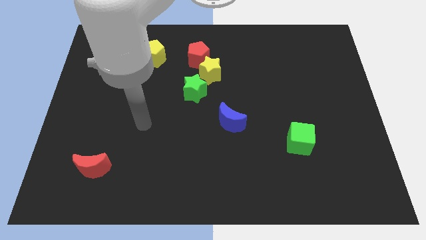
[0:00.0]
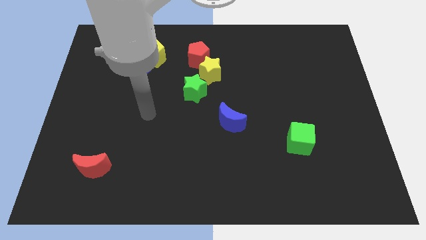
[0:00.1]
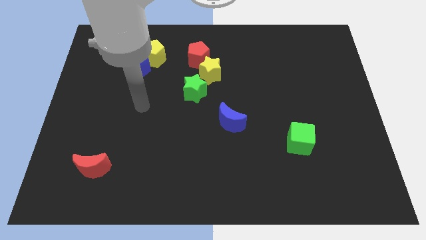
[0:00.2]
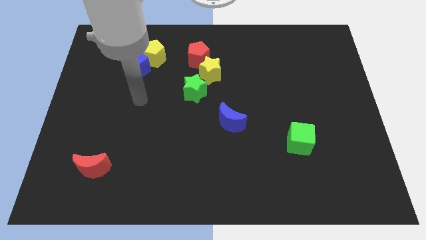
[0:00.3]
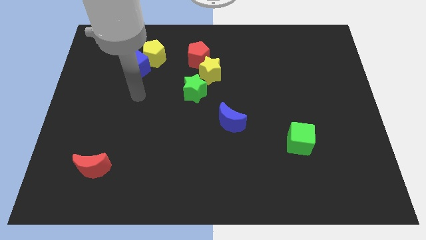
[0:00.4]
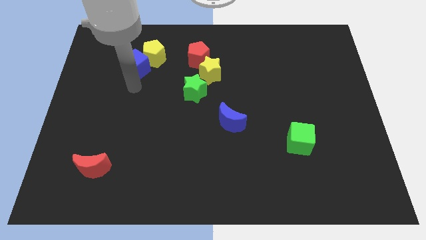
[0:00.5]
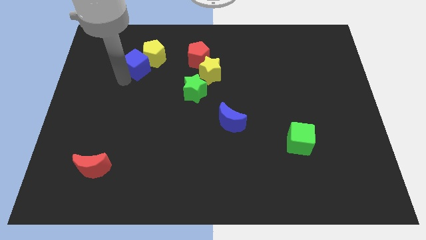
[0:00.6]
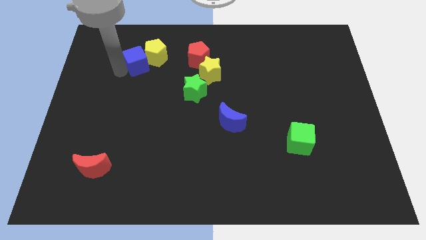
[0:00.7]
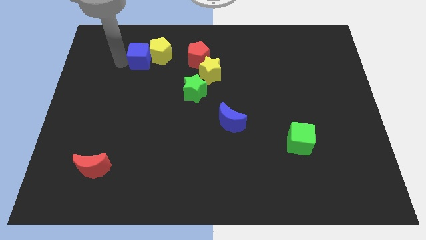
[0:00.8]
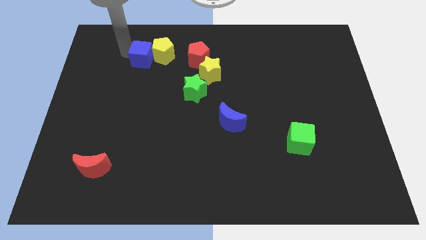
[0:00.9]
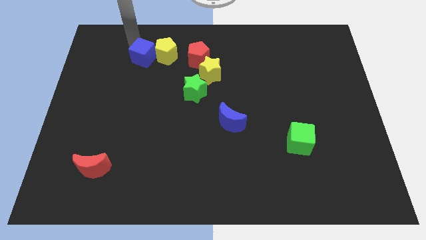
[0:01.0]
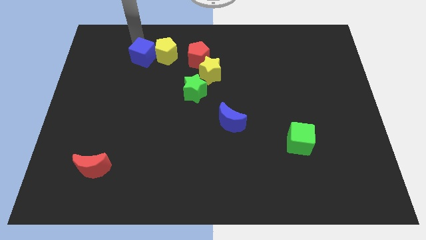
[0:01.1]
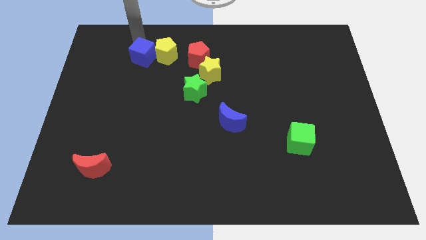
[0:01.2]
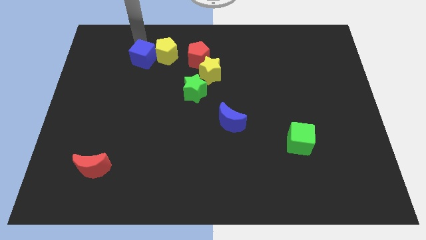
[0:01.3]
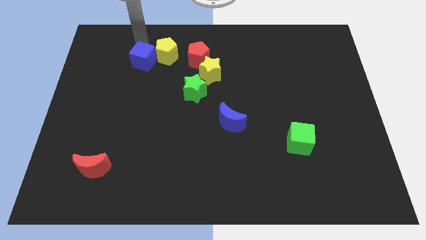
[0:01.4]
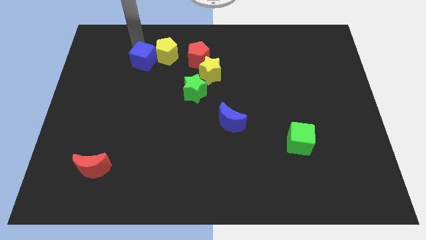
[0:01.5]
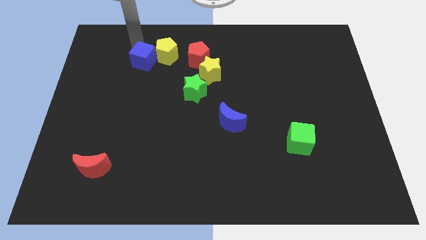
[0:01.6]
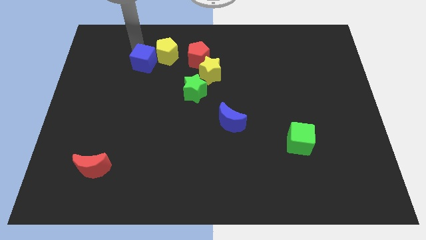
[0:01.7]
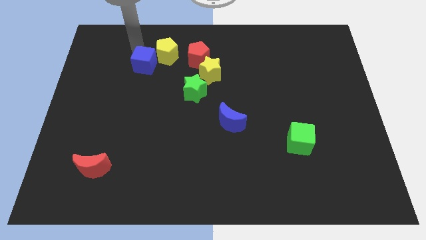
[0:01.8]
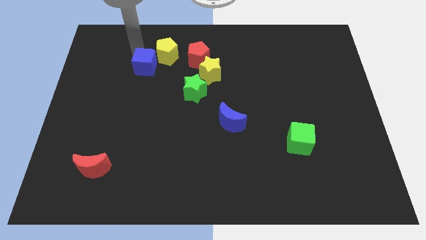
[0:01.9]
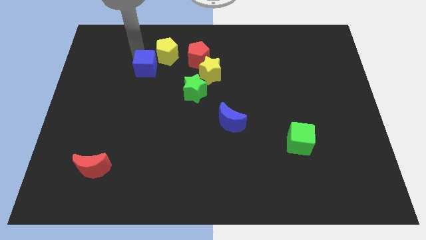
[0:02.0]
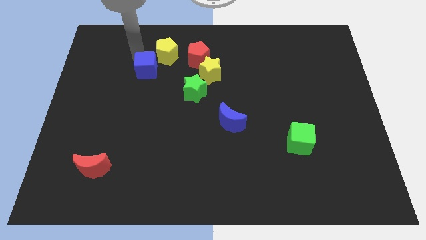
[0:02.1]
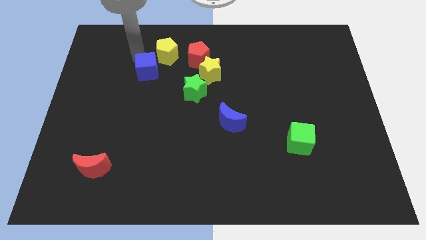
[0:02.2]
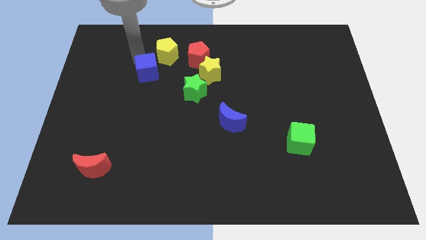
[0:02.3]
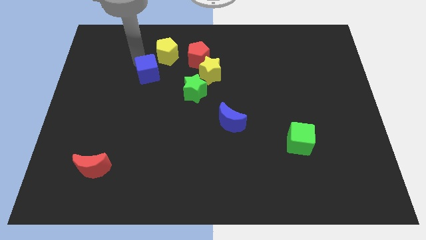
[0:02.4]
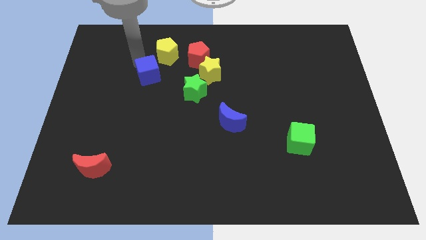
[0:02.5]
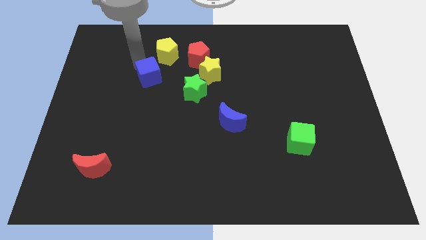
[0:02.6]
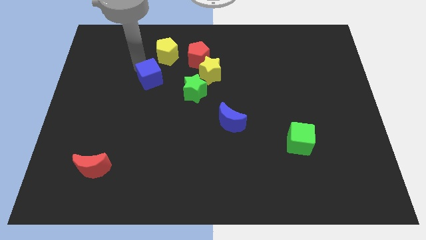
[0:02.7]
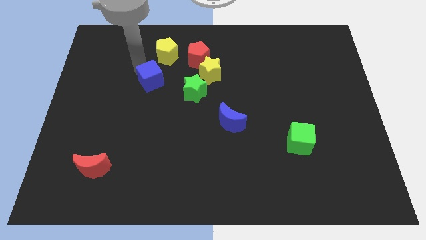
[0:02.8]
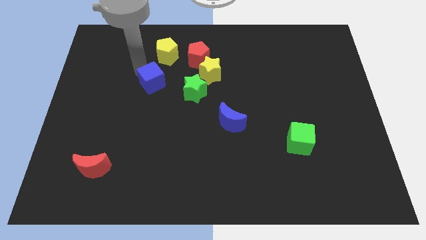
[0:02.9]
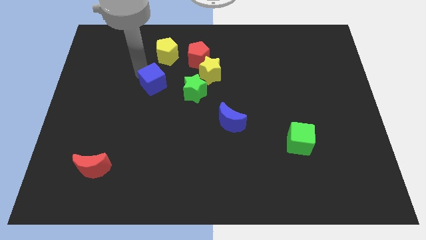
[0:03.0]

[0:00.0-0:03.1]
push the blue cube slightly downwards and right

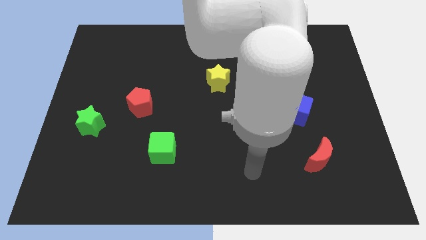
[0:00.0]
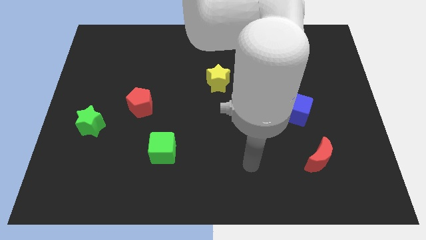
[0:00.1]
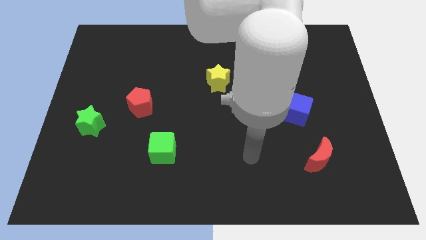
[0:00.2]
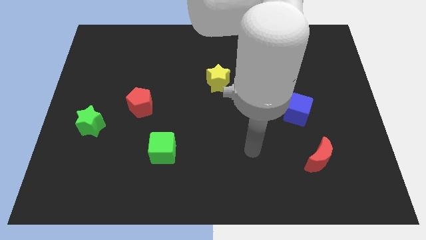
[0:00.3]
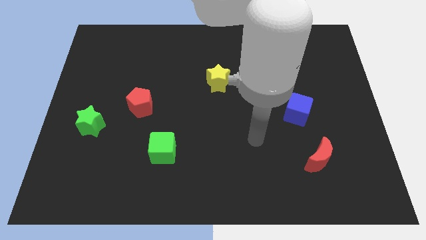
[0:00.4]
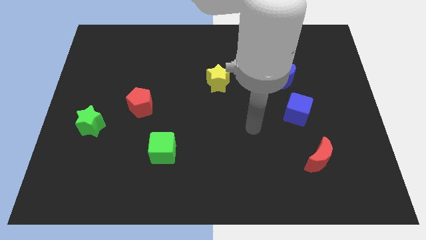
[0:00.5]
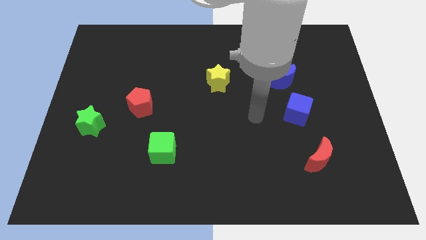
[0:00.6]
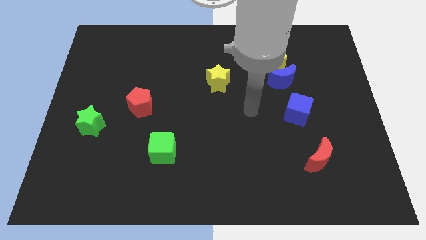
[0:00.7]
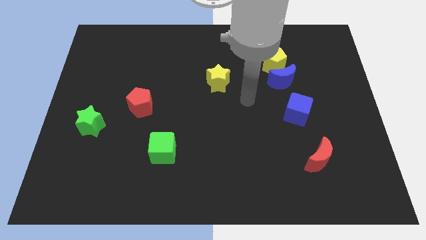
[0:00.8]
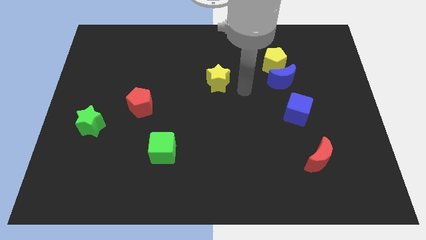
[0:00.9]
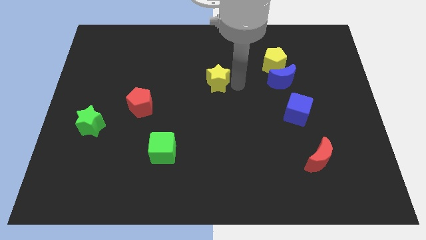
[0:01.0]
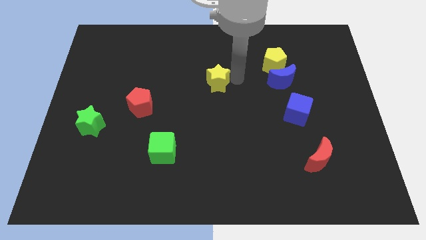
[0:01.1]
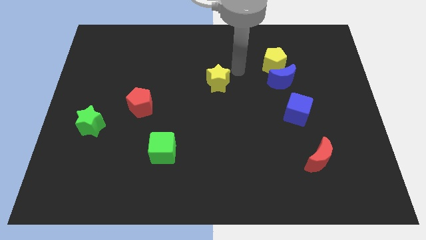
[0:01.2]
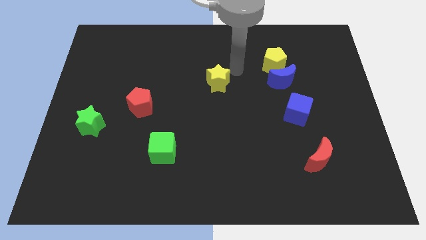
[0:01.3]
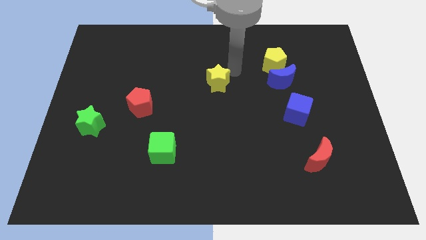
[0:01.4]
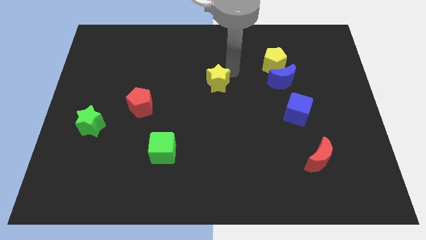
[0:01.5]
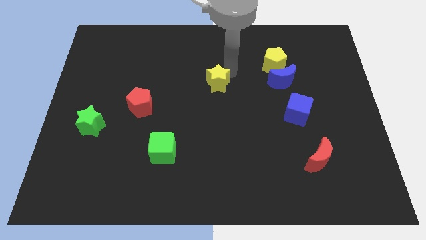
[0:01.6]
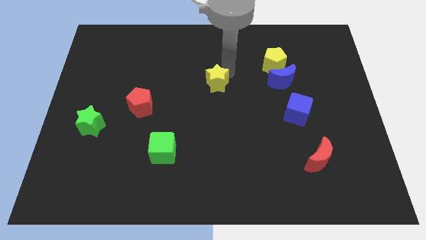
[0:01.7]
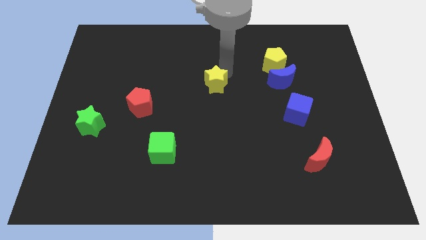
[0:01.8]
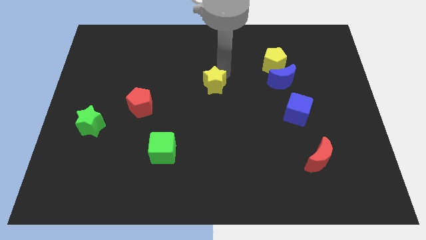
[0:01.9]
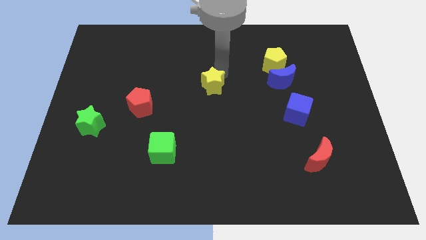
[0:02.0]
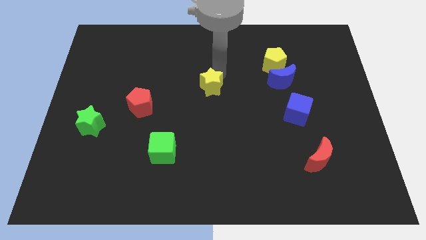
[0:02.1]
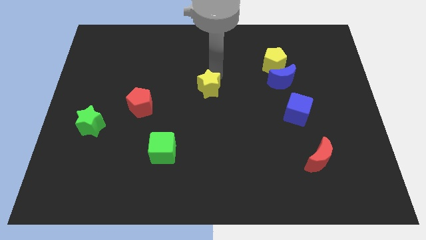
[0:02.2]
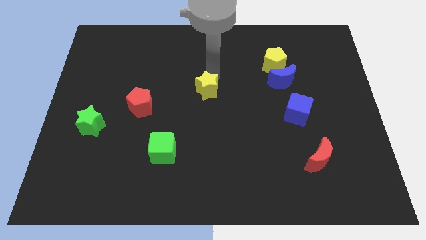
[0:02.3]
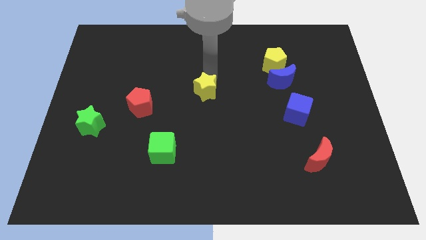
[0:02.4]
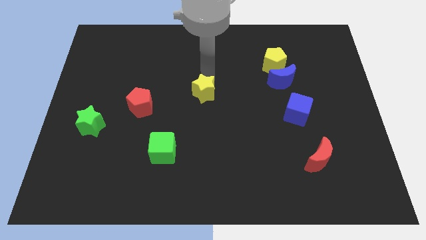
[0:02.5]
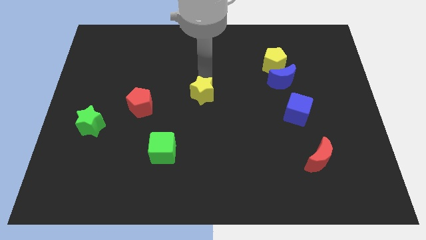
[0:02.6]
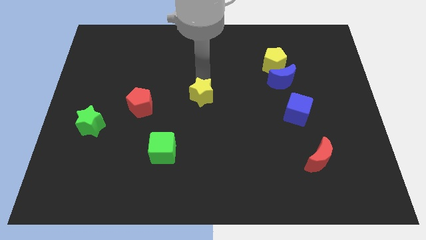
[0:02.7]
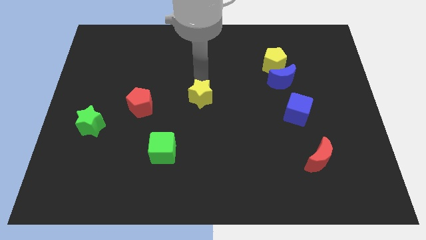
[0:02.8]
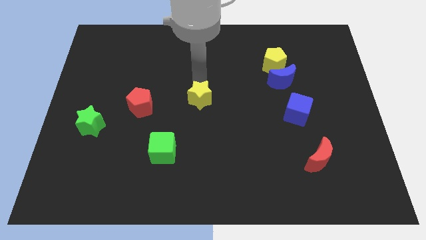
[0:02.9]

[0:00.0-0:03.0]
push the yellow star a bit down and left

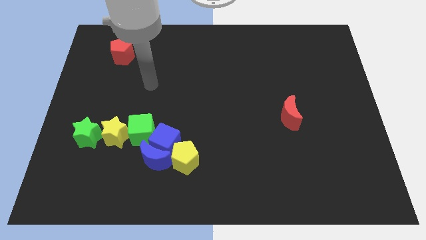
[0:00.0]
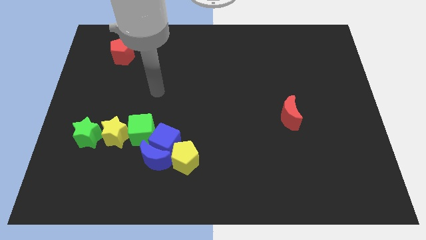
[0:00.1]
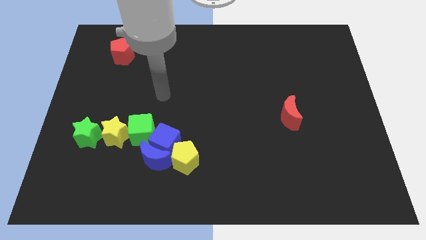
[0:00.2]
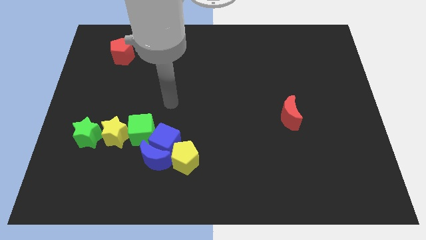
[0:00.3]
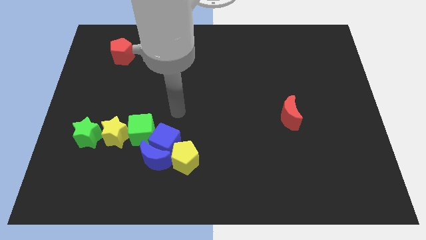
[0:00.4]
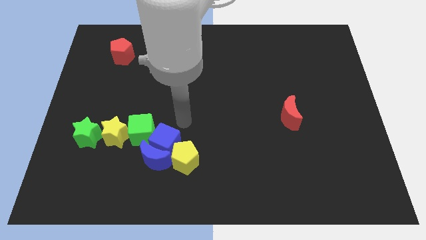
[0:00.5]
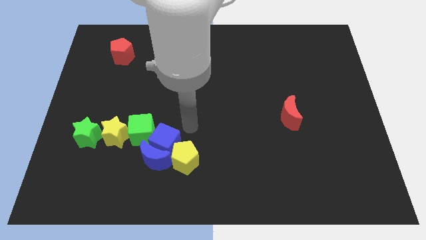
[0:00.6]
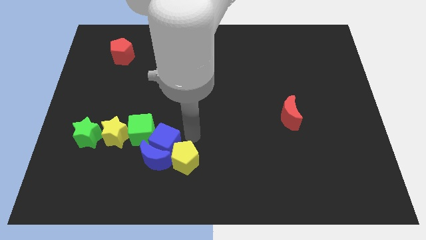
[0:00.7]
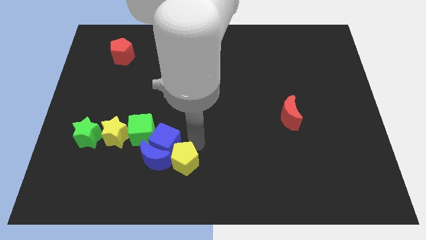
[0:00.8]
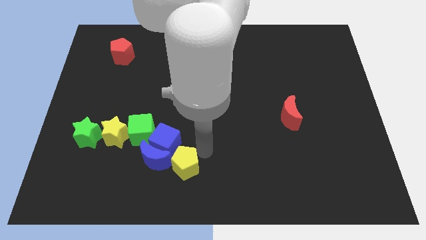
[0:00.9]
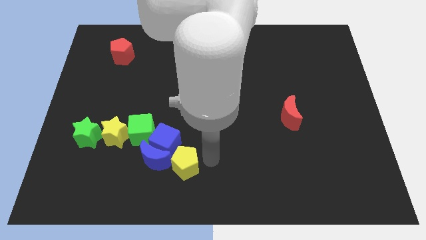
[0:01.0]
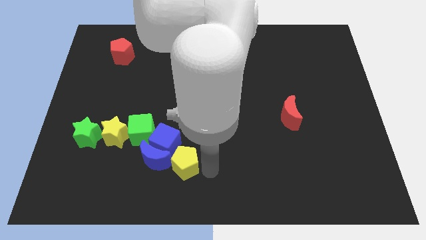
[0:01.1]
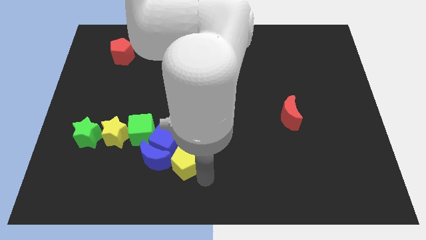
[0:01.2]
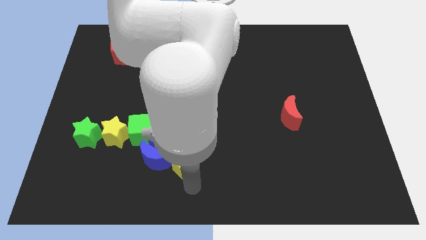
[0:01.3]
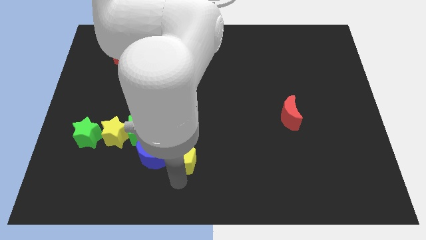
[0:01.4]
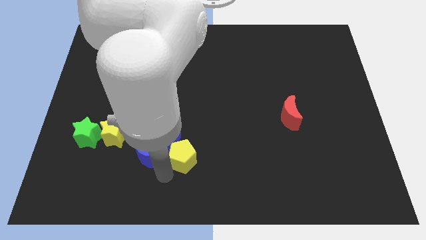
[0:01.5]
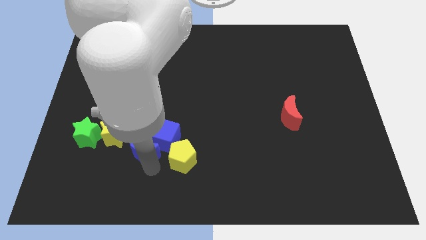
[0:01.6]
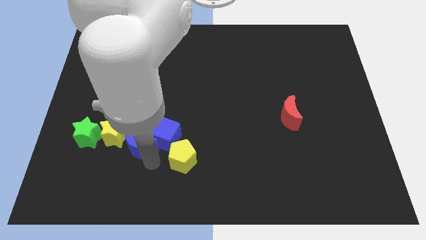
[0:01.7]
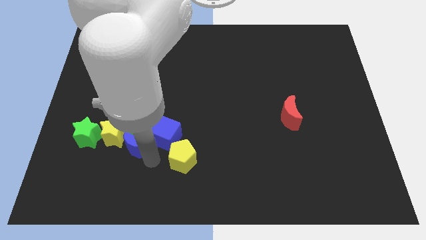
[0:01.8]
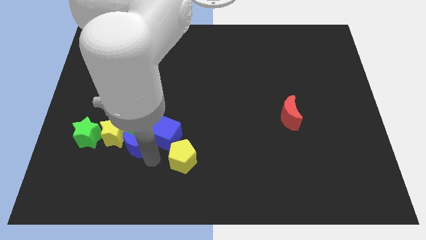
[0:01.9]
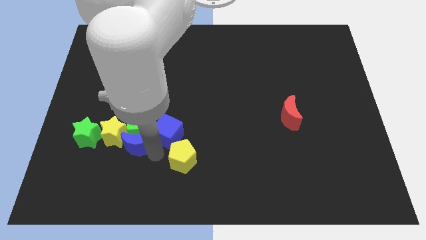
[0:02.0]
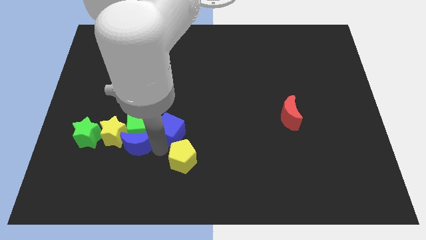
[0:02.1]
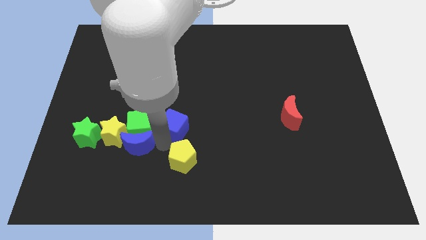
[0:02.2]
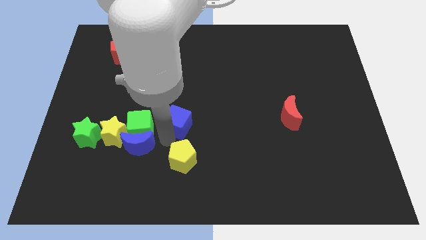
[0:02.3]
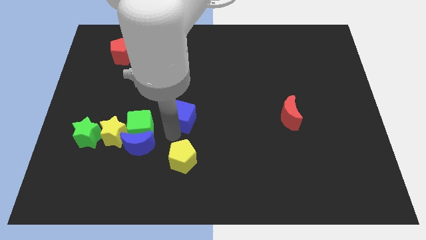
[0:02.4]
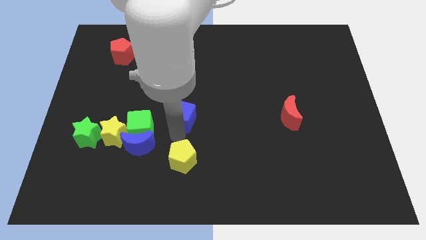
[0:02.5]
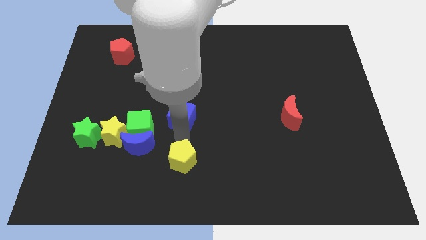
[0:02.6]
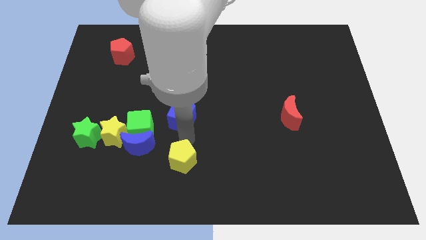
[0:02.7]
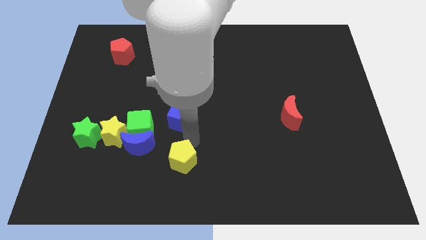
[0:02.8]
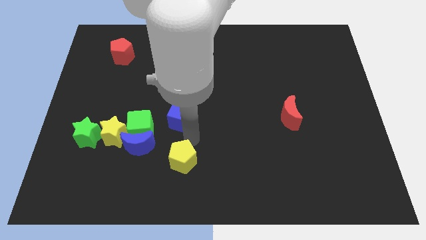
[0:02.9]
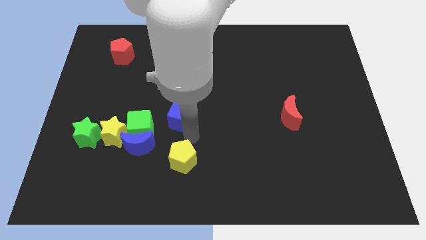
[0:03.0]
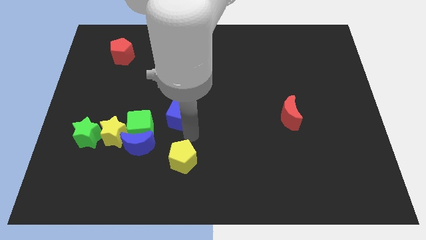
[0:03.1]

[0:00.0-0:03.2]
slide the blue cube upwards a little
